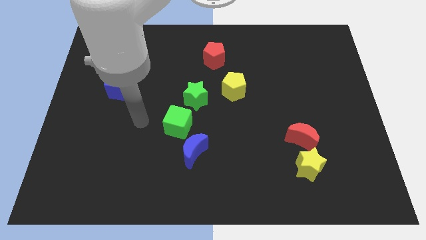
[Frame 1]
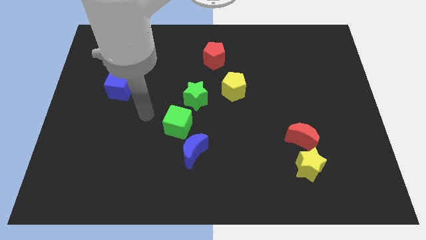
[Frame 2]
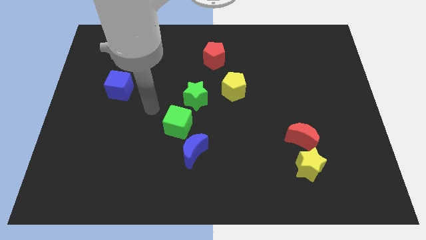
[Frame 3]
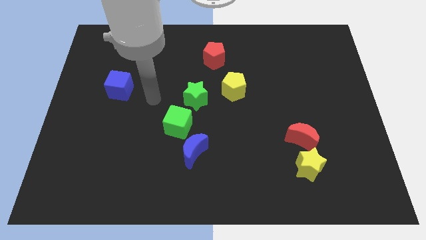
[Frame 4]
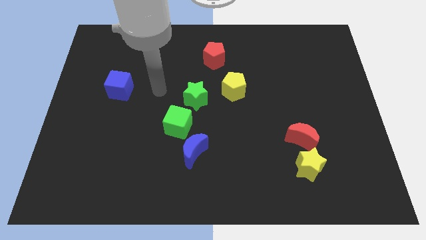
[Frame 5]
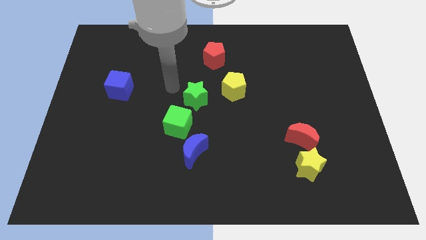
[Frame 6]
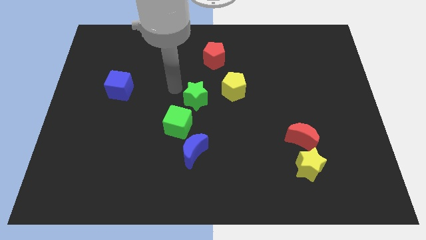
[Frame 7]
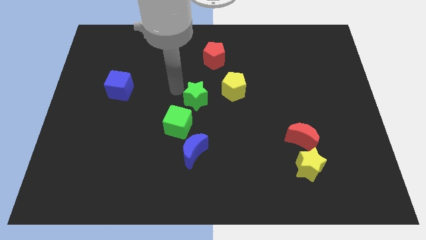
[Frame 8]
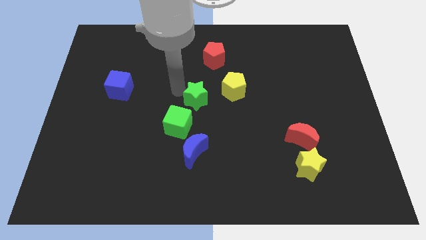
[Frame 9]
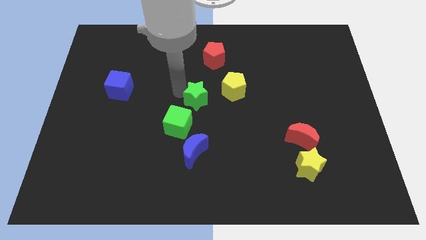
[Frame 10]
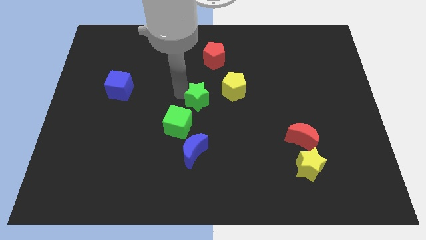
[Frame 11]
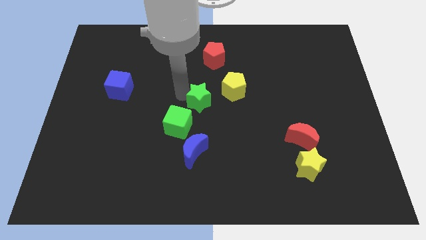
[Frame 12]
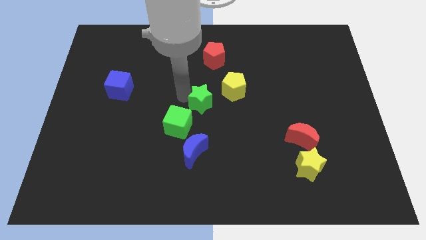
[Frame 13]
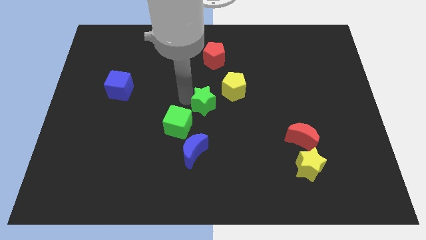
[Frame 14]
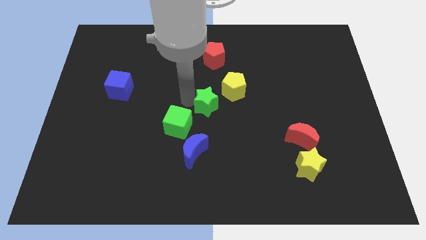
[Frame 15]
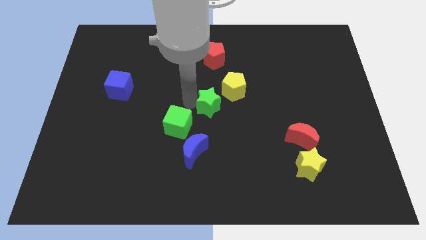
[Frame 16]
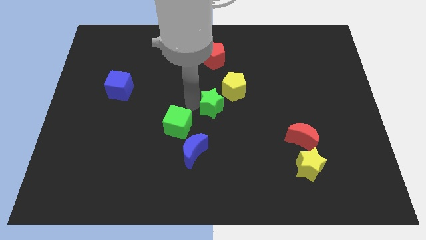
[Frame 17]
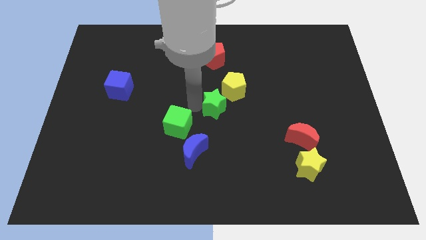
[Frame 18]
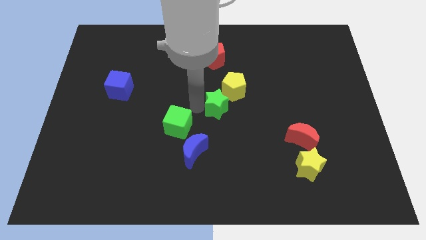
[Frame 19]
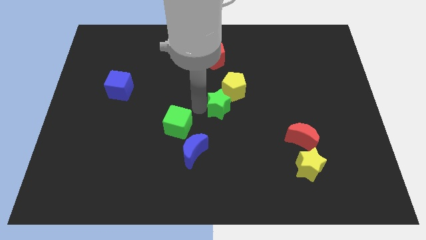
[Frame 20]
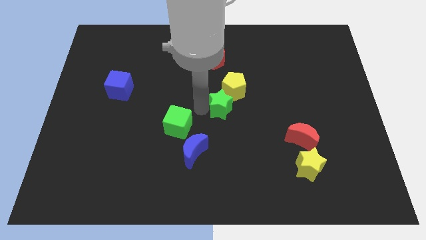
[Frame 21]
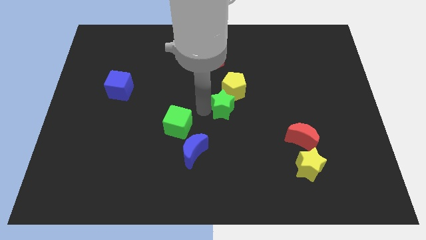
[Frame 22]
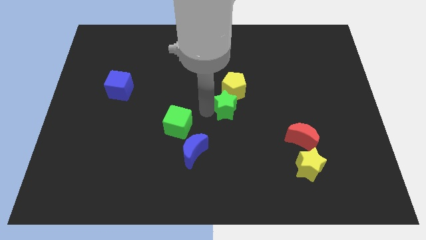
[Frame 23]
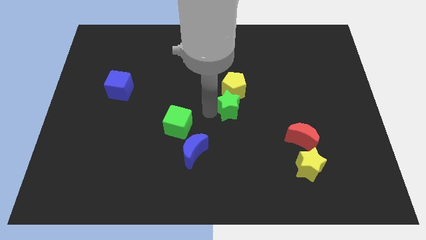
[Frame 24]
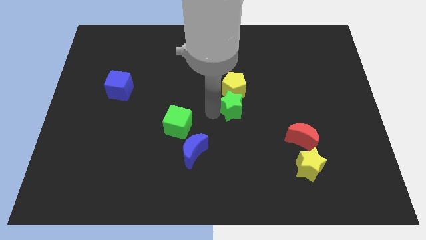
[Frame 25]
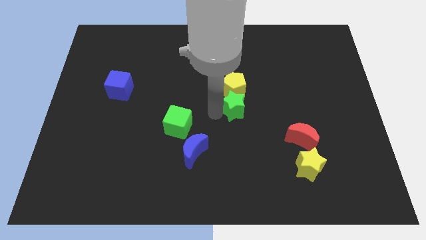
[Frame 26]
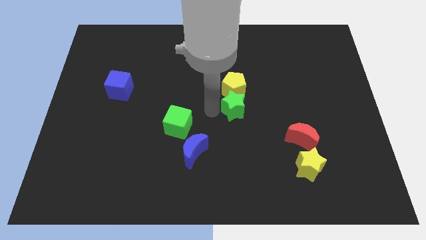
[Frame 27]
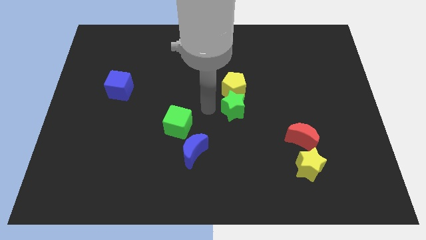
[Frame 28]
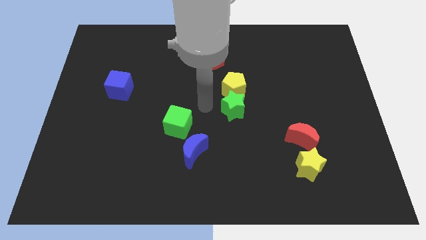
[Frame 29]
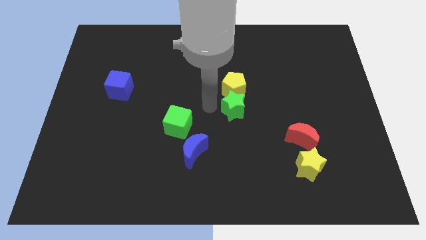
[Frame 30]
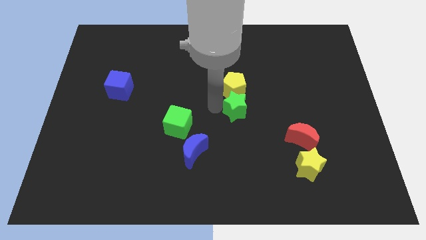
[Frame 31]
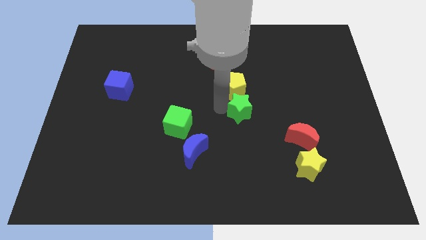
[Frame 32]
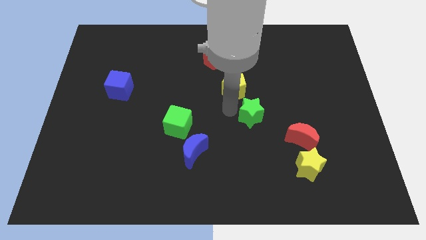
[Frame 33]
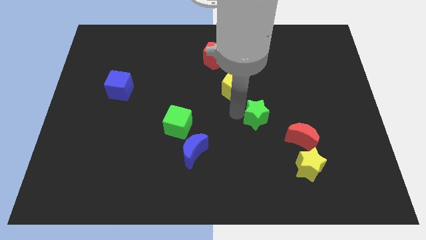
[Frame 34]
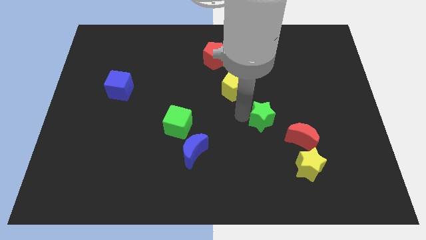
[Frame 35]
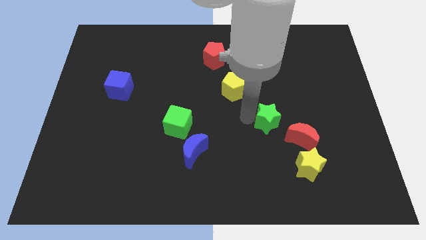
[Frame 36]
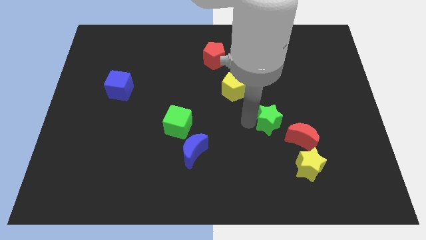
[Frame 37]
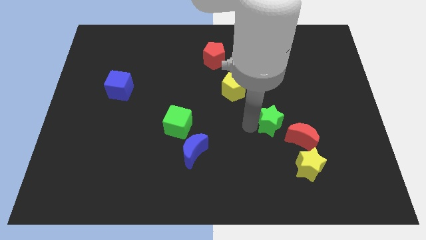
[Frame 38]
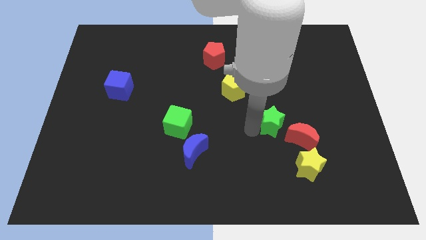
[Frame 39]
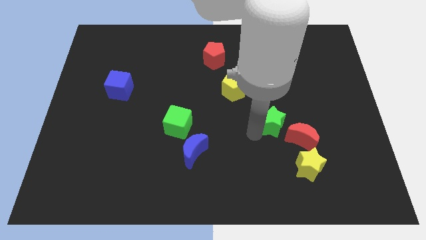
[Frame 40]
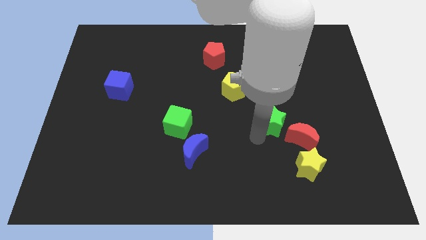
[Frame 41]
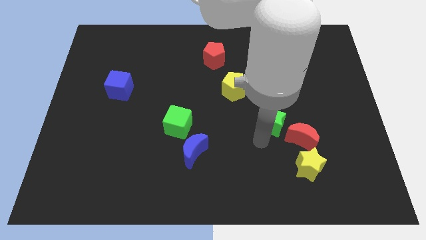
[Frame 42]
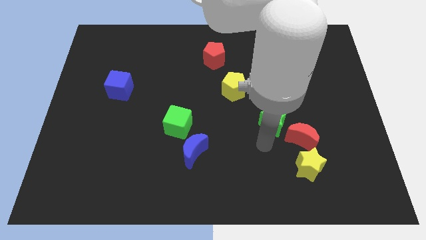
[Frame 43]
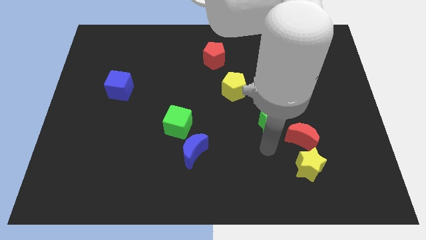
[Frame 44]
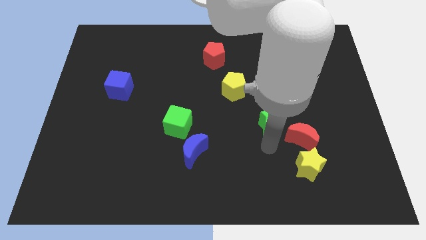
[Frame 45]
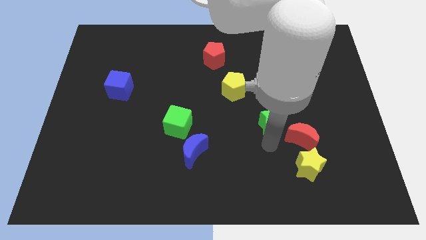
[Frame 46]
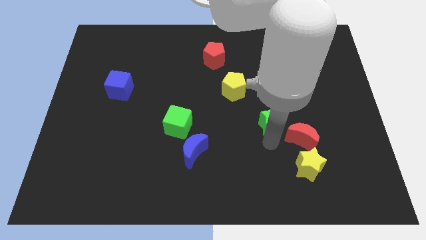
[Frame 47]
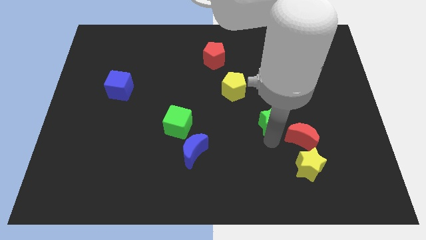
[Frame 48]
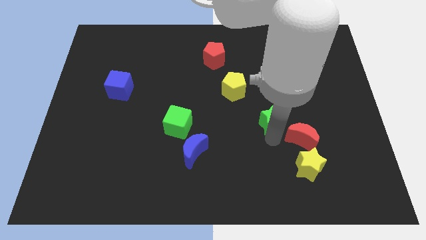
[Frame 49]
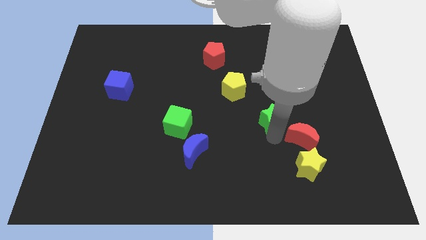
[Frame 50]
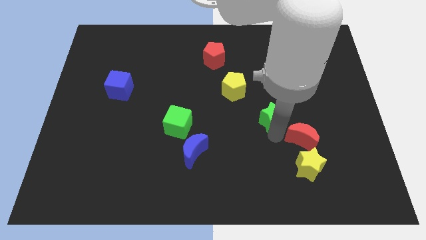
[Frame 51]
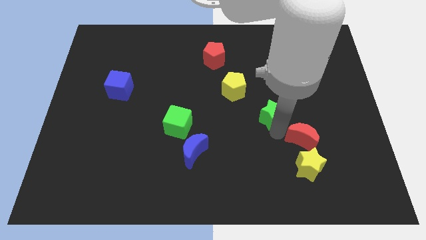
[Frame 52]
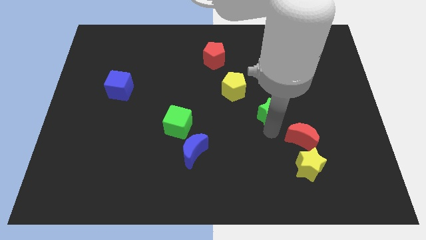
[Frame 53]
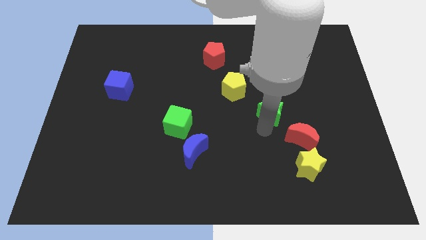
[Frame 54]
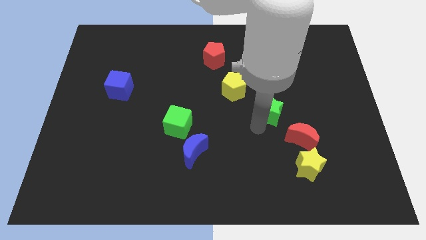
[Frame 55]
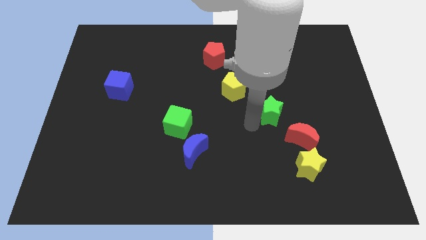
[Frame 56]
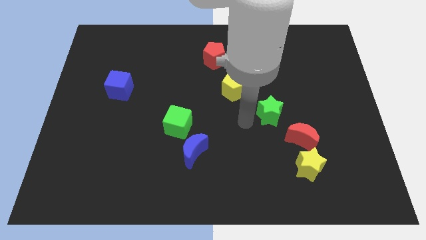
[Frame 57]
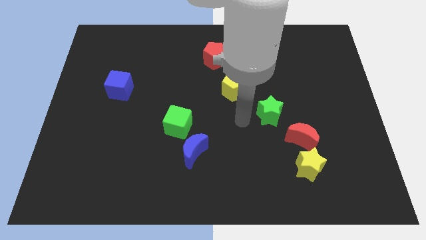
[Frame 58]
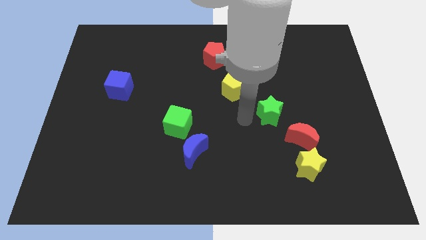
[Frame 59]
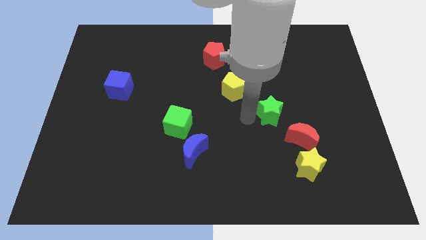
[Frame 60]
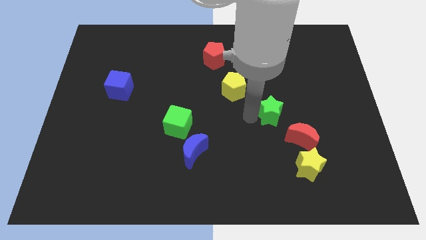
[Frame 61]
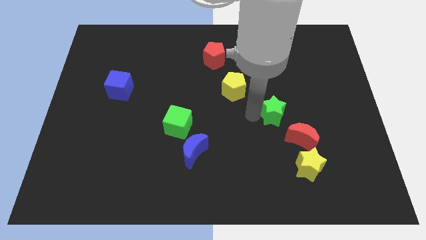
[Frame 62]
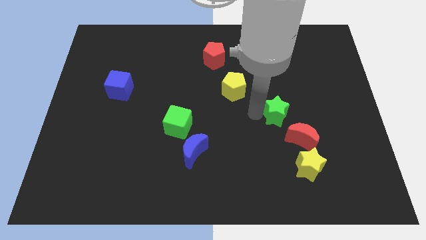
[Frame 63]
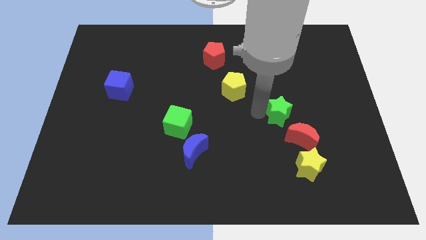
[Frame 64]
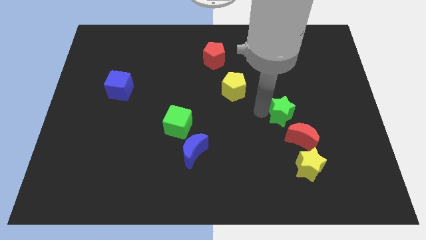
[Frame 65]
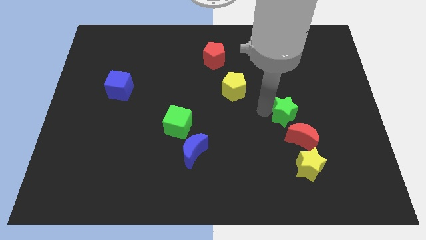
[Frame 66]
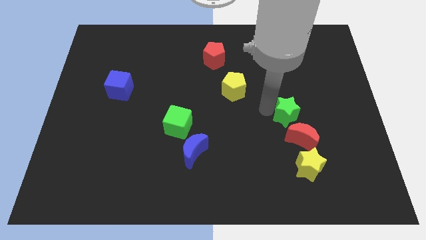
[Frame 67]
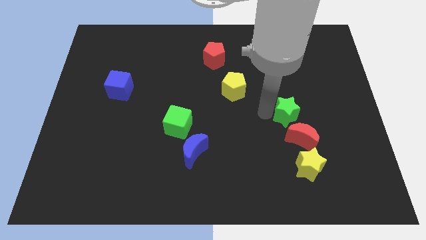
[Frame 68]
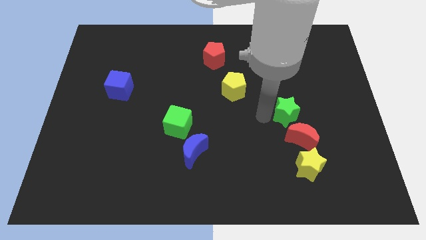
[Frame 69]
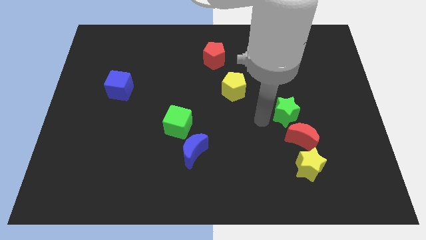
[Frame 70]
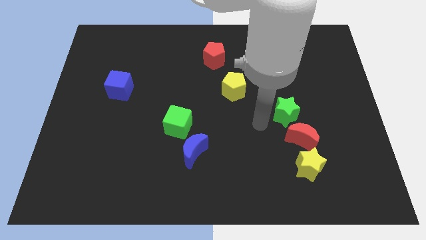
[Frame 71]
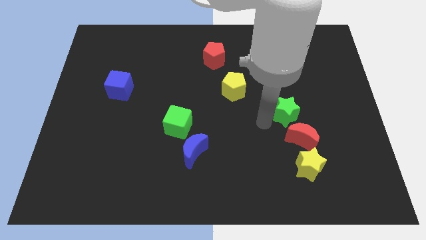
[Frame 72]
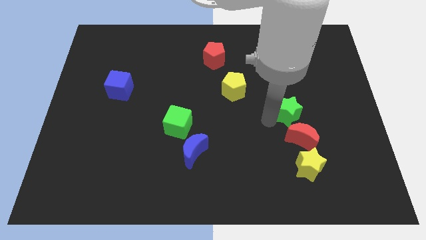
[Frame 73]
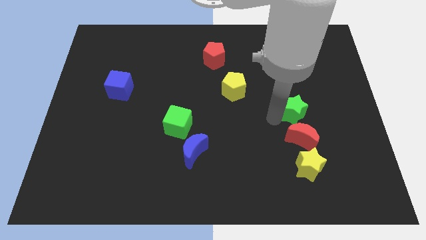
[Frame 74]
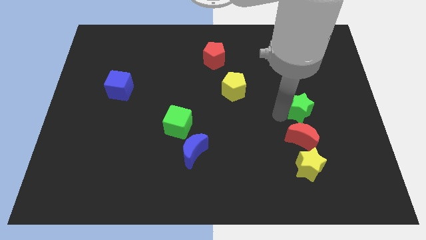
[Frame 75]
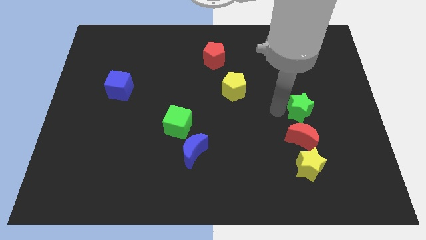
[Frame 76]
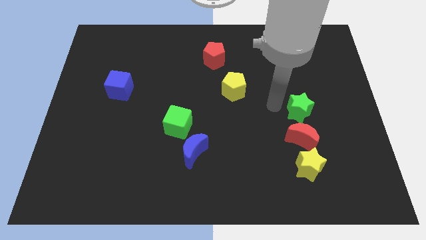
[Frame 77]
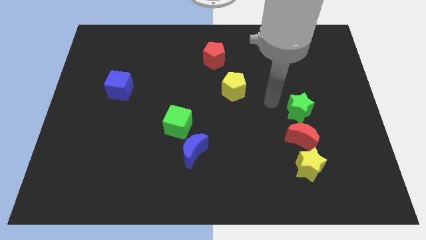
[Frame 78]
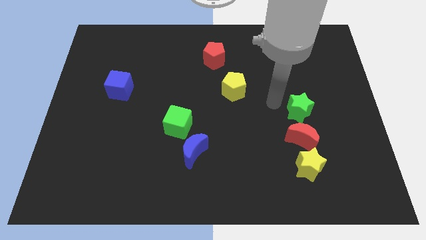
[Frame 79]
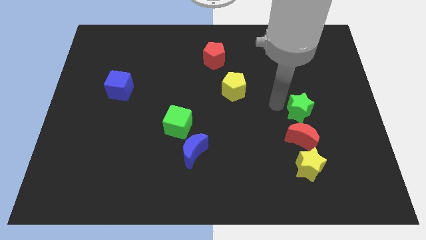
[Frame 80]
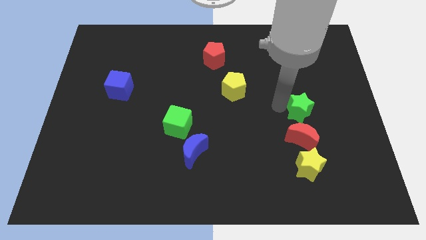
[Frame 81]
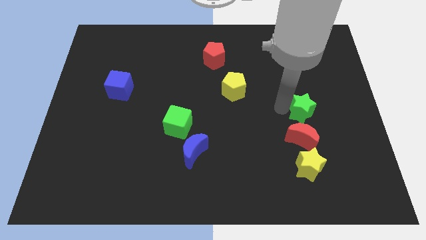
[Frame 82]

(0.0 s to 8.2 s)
move the green star to the top right side of the red moon
